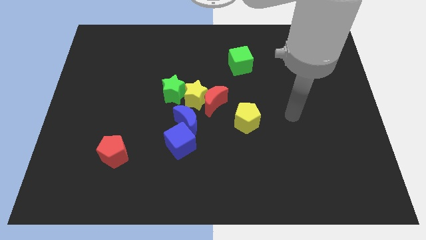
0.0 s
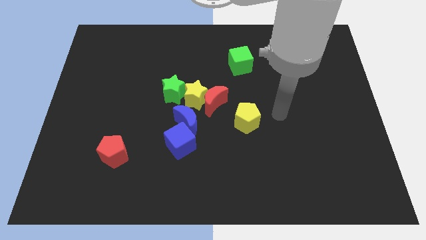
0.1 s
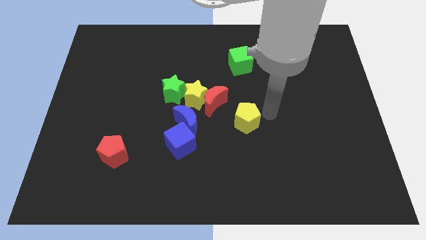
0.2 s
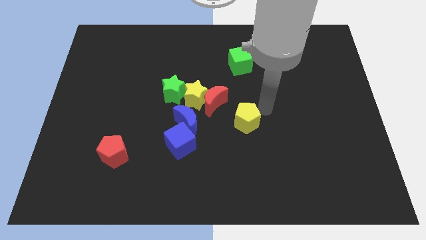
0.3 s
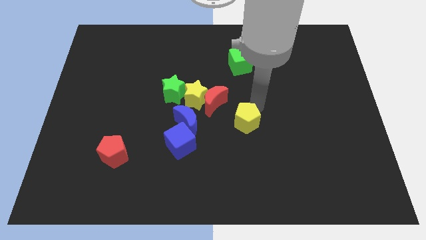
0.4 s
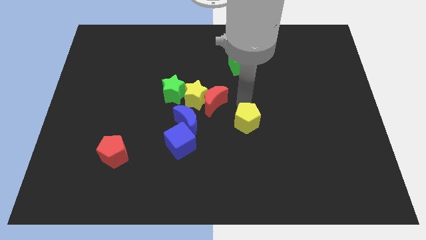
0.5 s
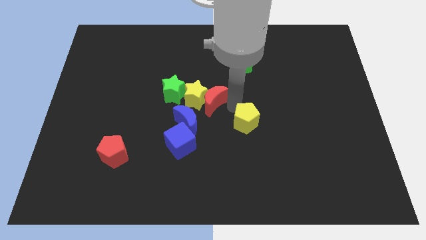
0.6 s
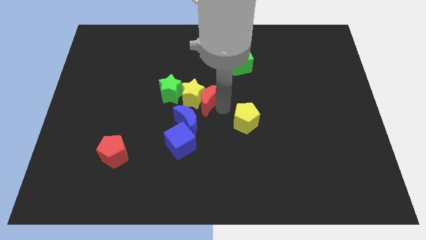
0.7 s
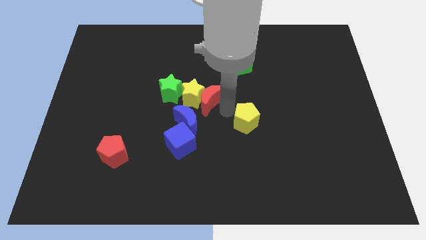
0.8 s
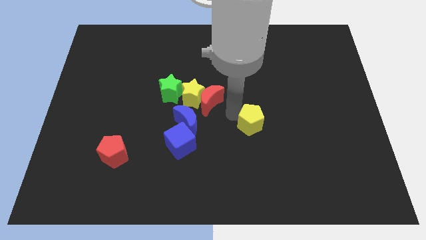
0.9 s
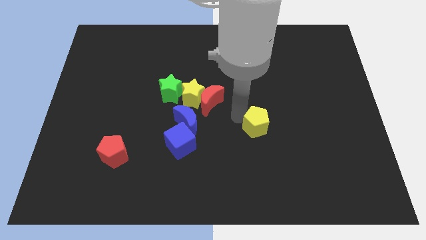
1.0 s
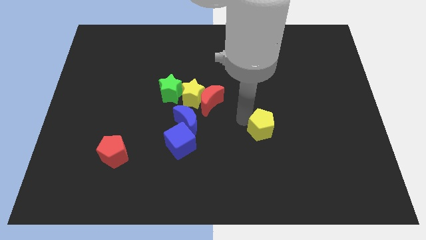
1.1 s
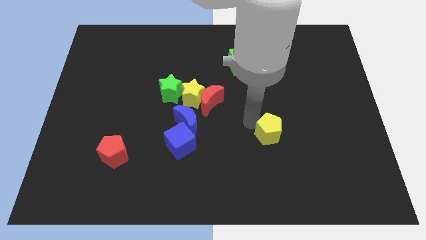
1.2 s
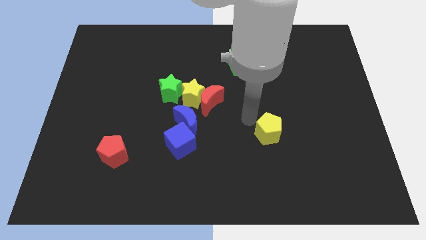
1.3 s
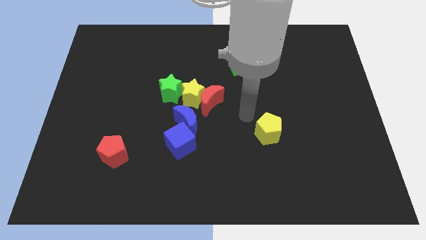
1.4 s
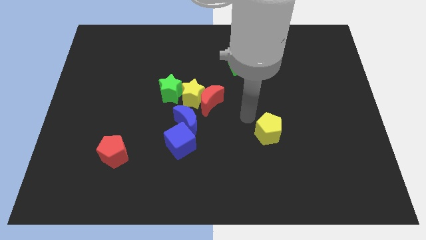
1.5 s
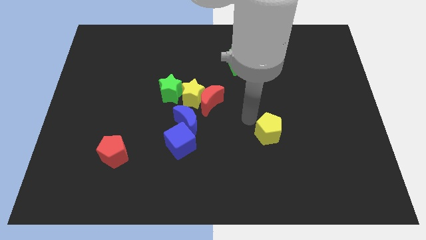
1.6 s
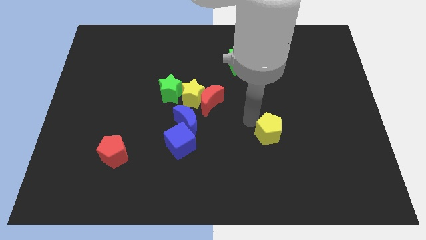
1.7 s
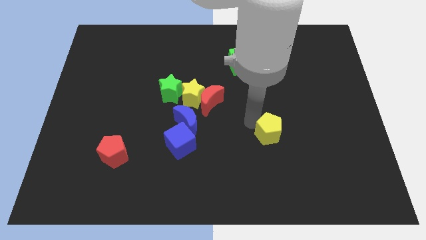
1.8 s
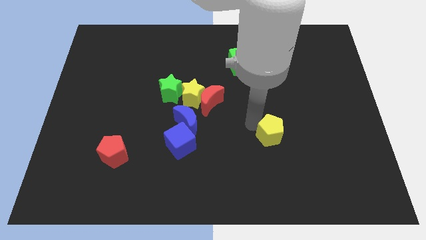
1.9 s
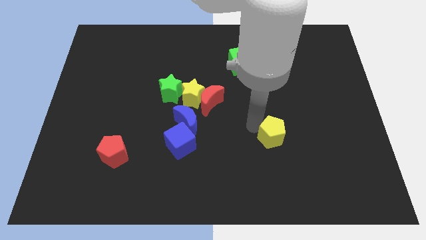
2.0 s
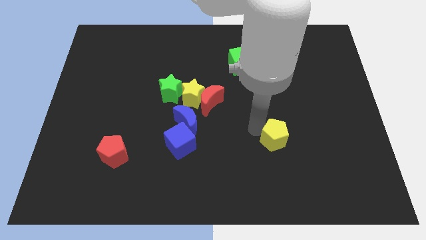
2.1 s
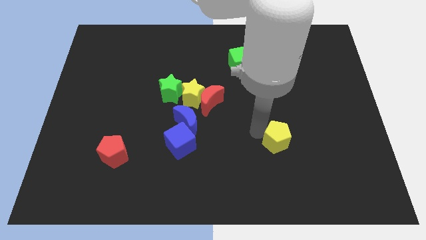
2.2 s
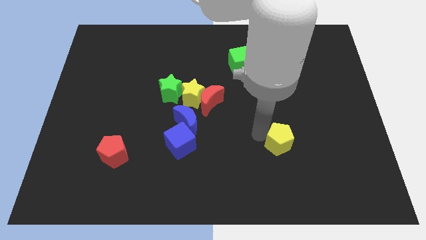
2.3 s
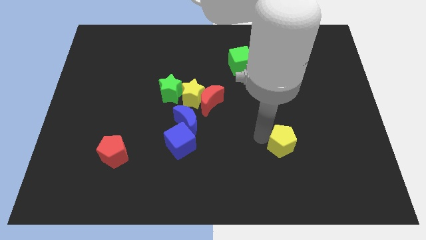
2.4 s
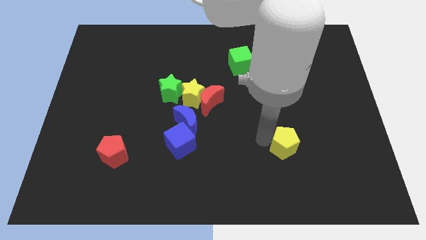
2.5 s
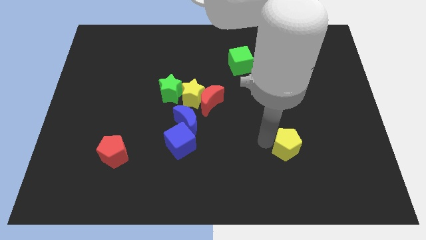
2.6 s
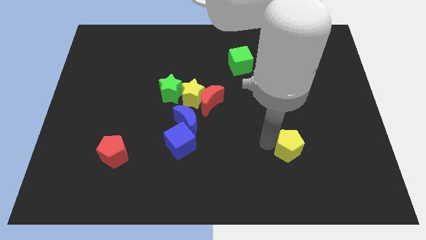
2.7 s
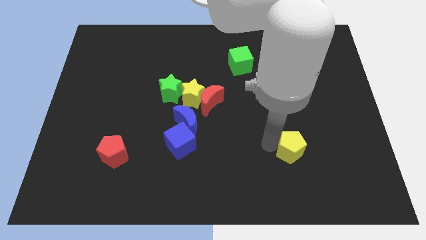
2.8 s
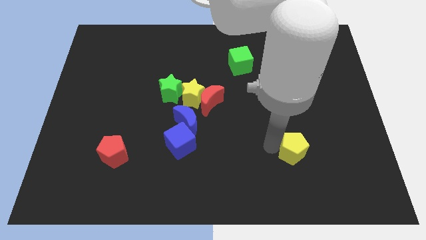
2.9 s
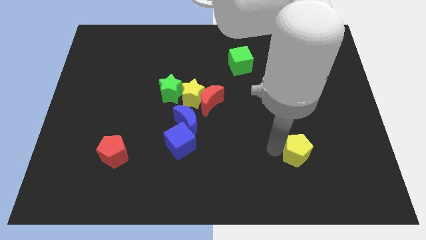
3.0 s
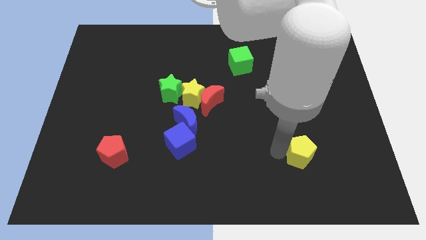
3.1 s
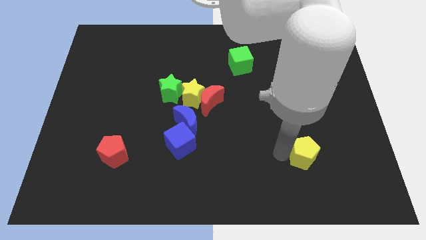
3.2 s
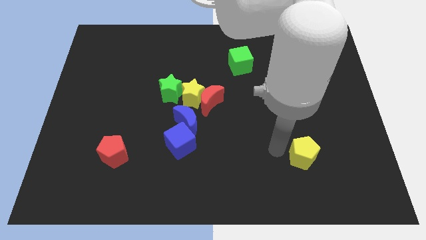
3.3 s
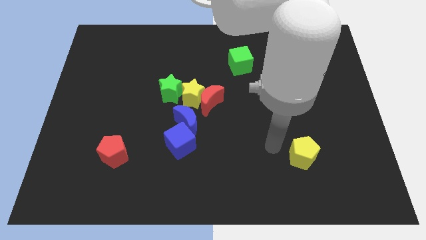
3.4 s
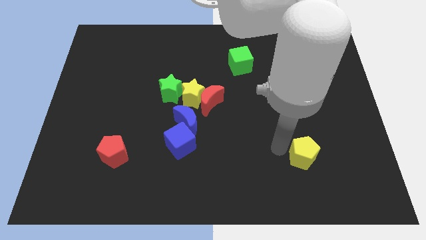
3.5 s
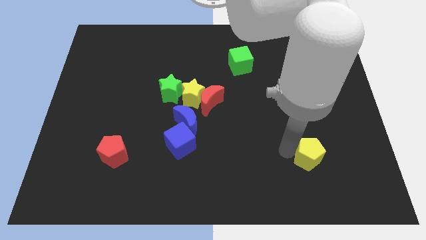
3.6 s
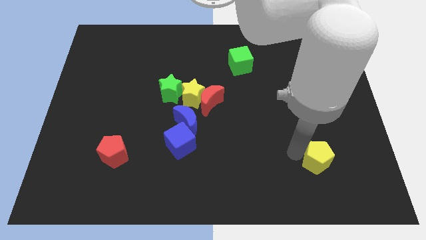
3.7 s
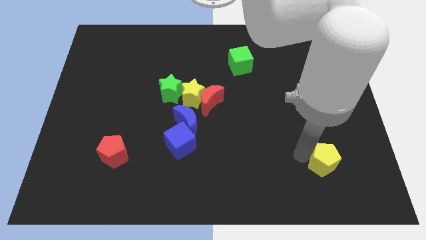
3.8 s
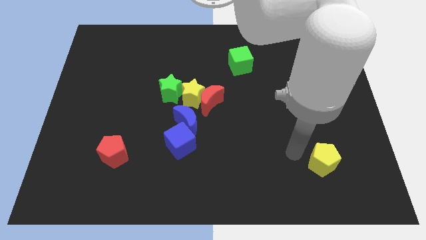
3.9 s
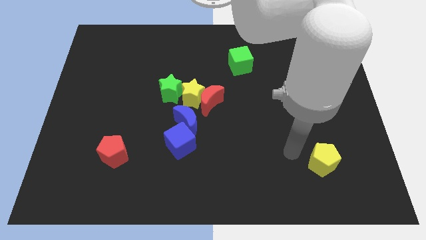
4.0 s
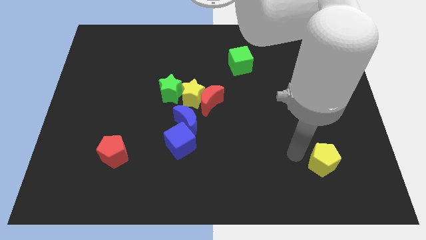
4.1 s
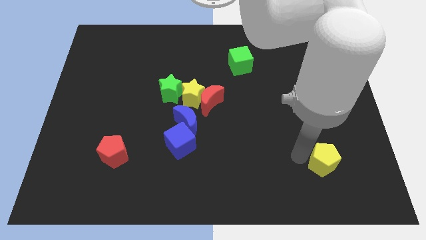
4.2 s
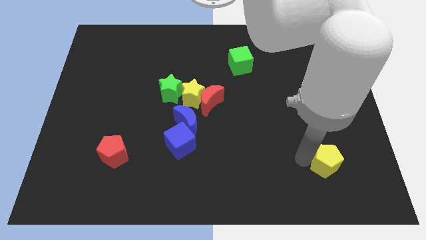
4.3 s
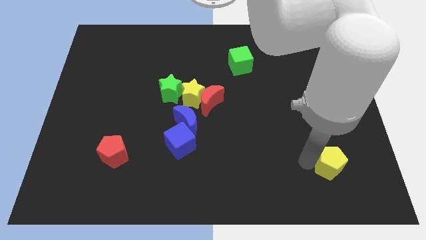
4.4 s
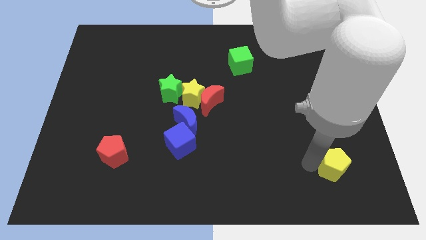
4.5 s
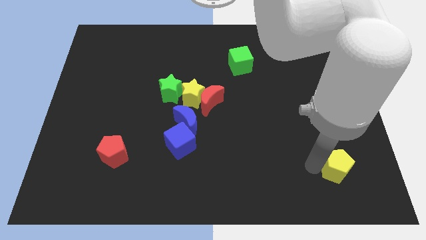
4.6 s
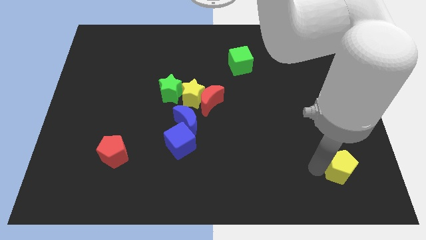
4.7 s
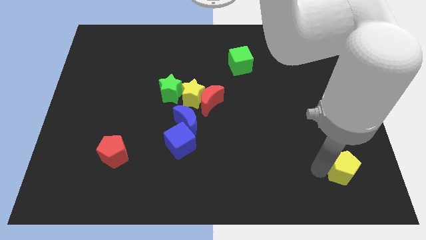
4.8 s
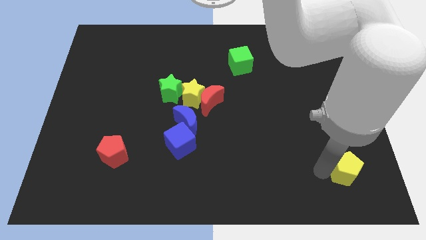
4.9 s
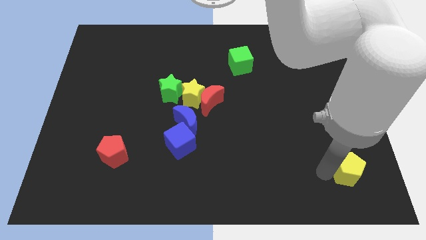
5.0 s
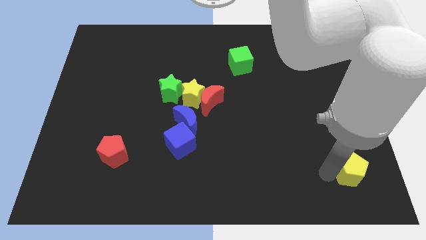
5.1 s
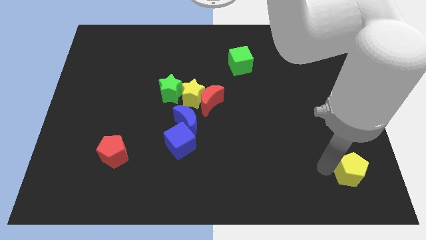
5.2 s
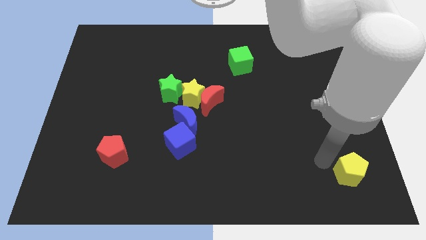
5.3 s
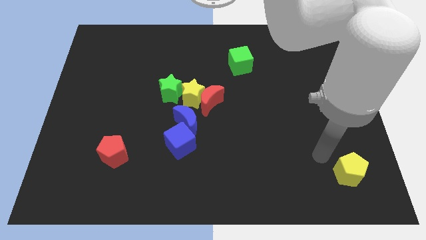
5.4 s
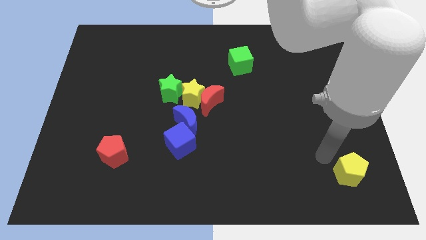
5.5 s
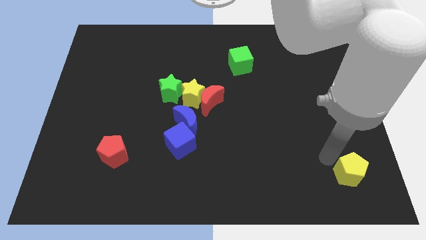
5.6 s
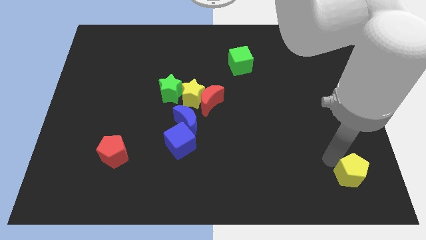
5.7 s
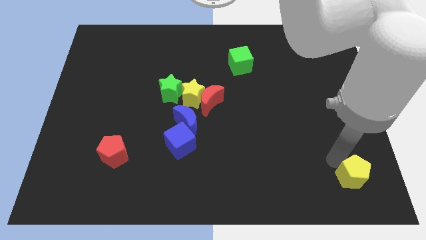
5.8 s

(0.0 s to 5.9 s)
push the yellow pentagon to the bottom right of the board
